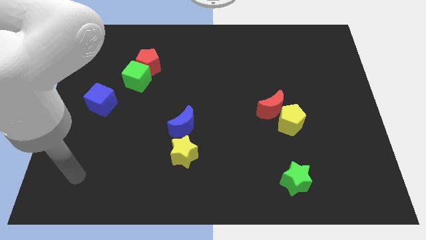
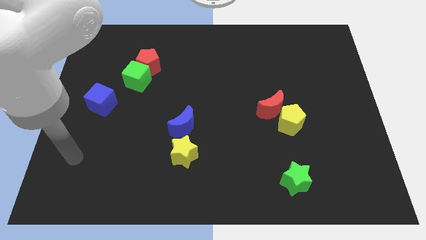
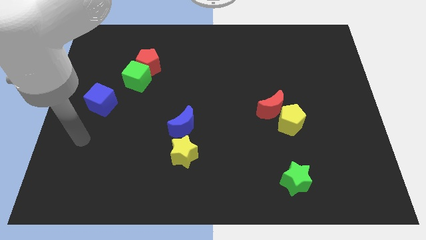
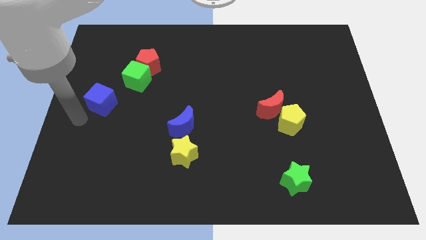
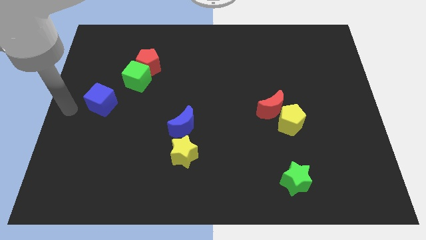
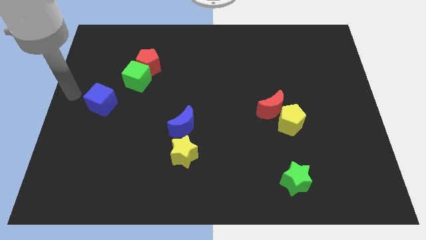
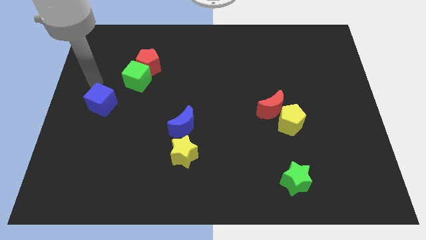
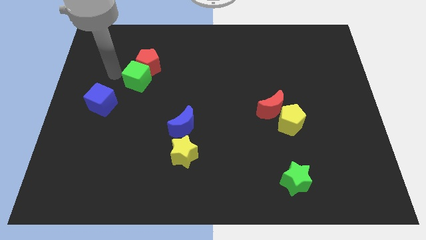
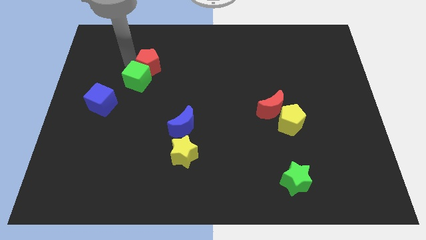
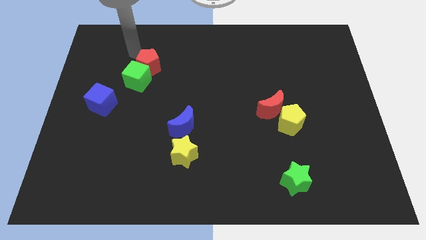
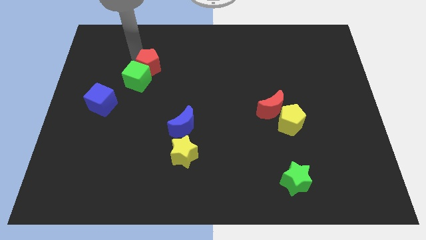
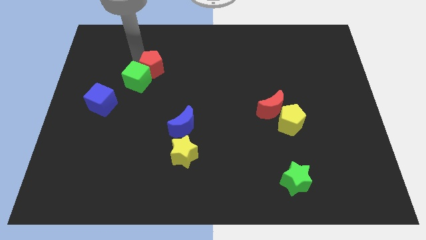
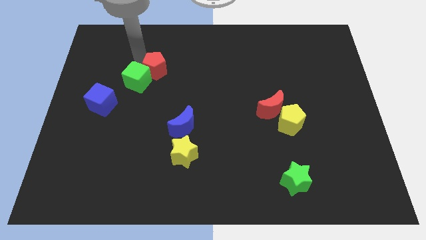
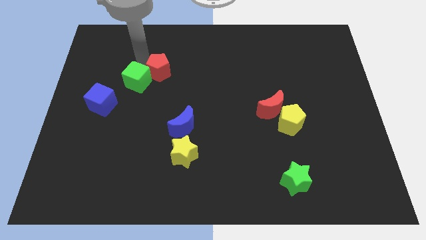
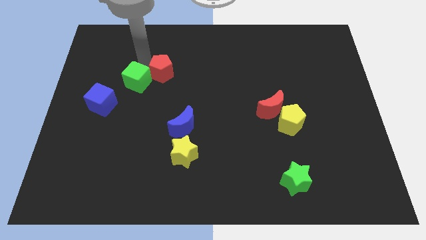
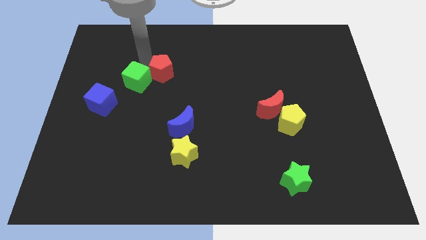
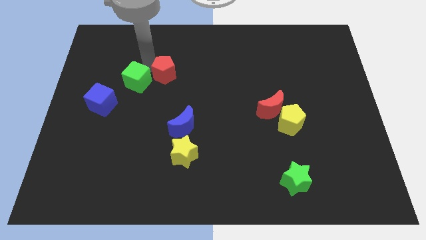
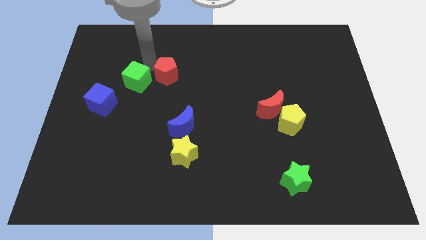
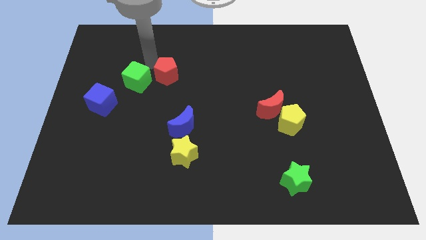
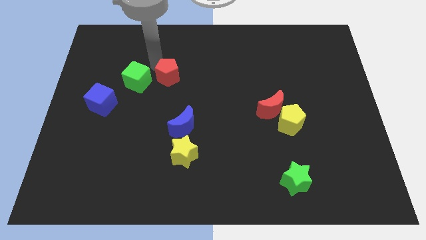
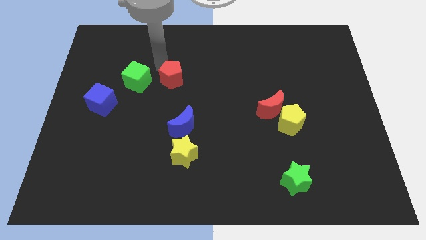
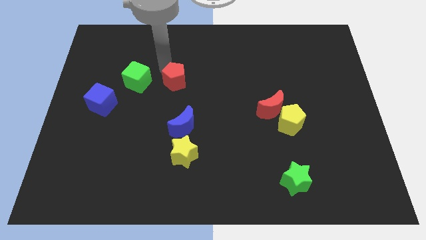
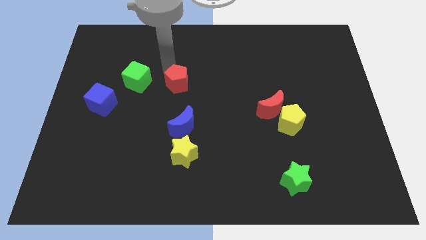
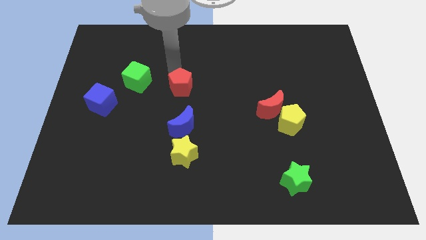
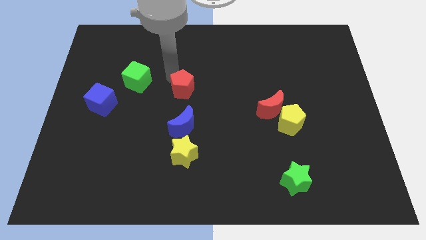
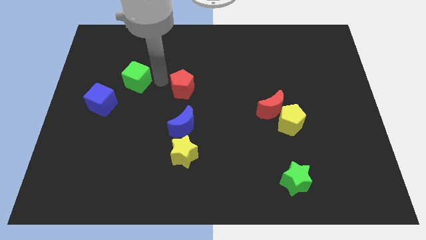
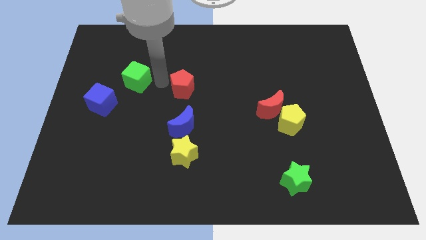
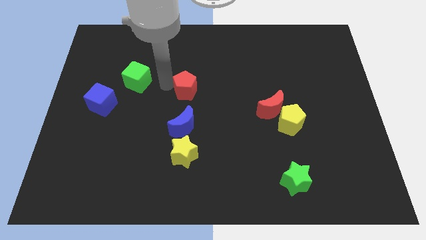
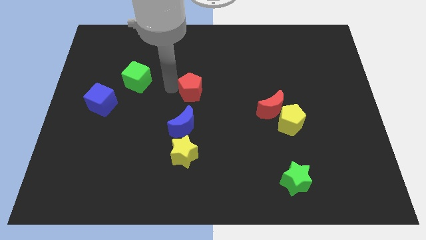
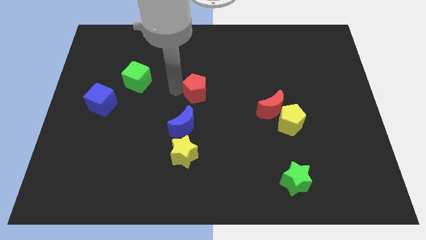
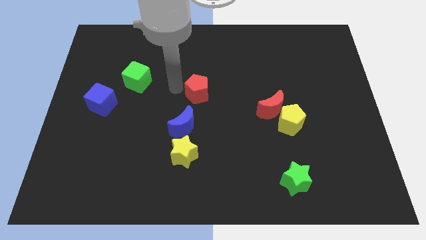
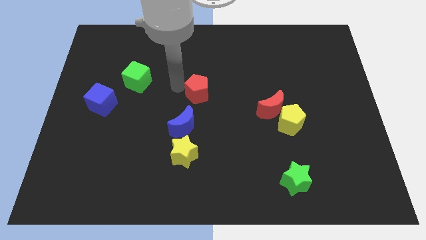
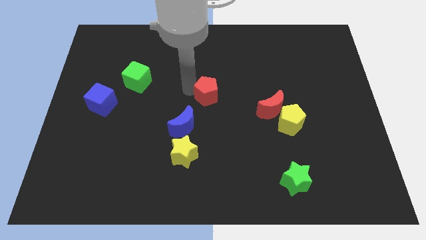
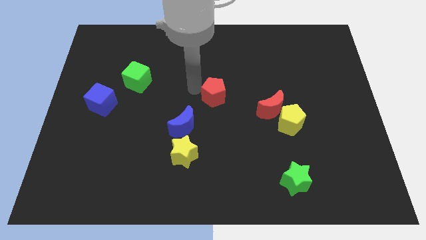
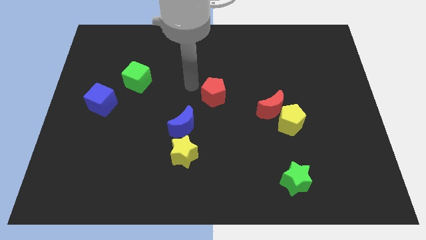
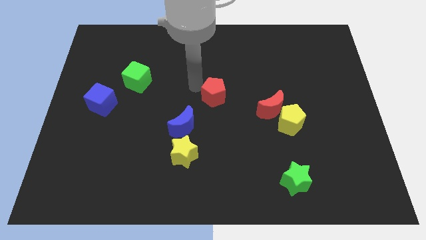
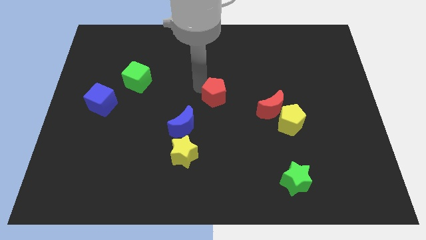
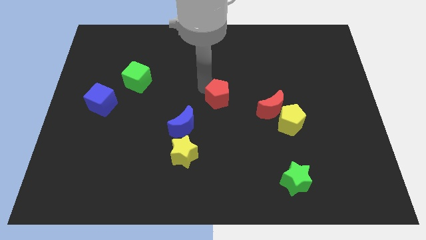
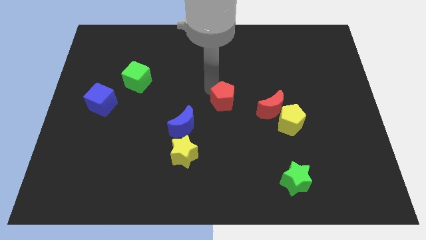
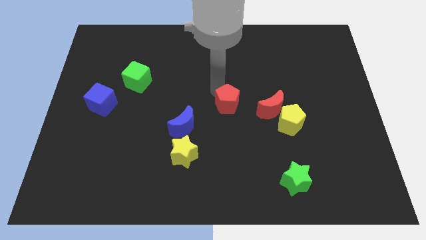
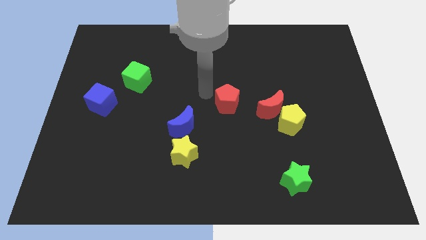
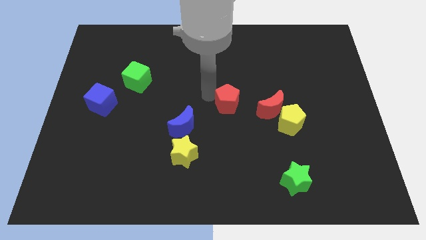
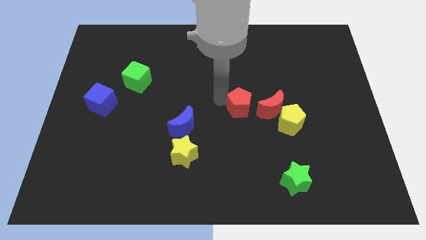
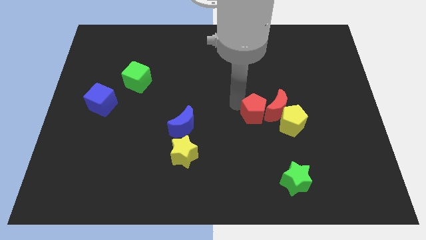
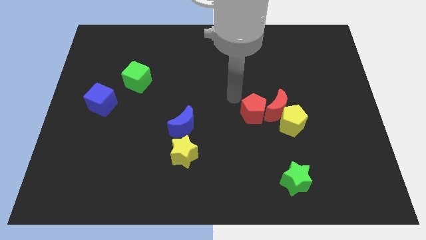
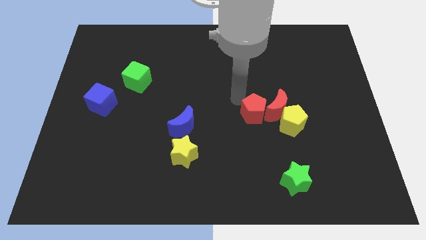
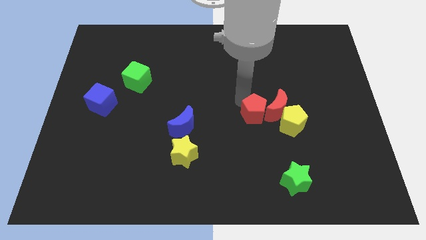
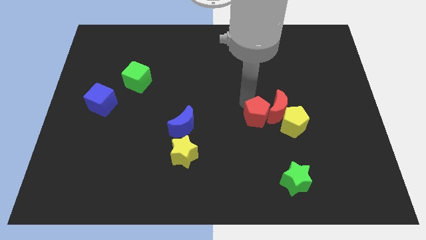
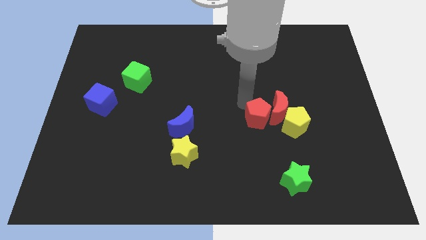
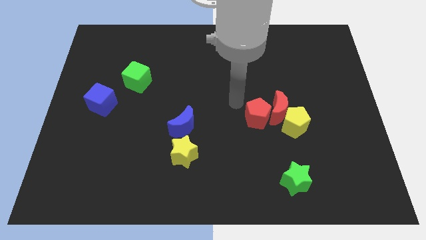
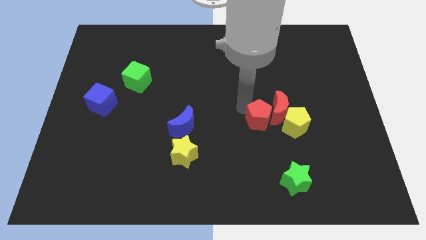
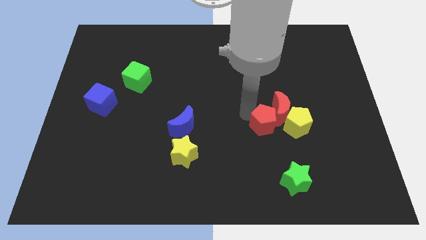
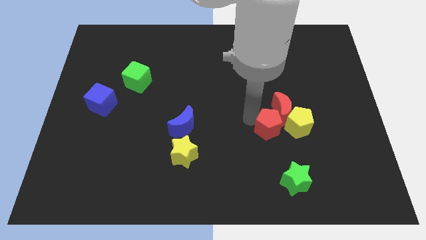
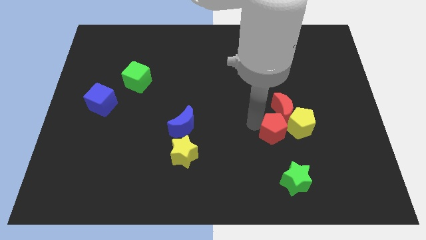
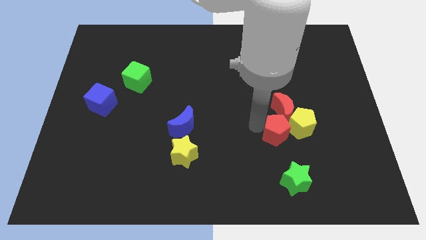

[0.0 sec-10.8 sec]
move the red pentagon close to the yellow pentagon

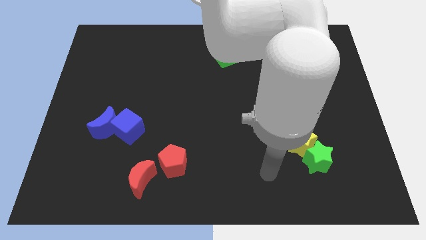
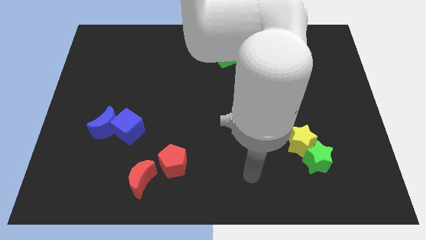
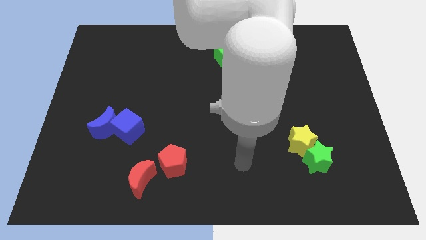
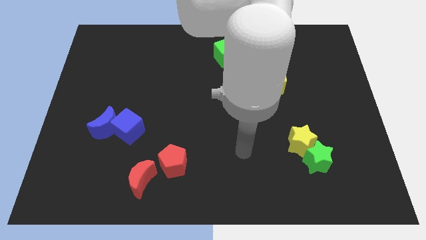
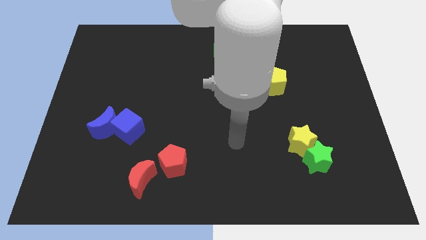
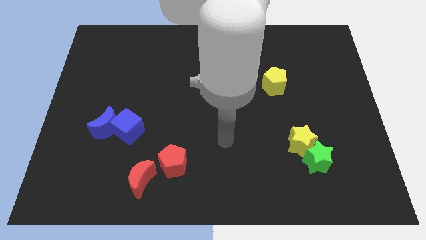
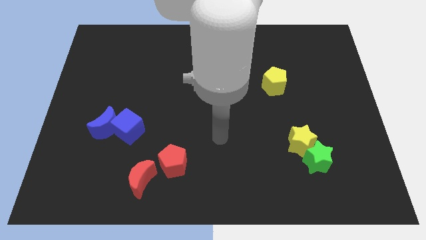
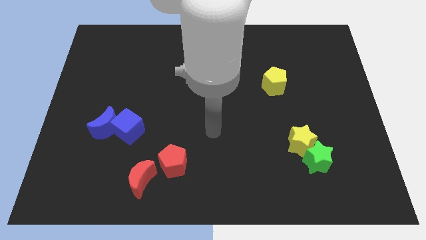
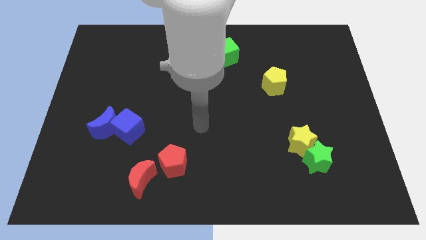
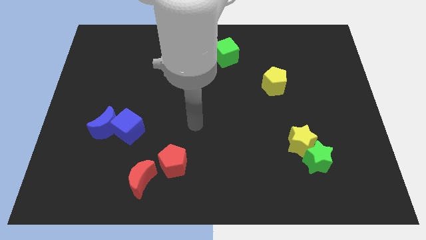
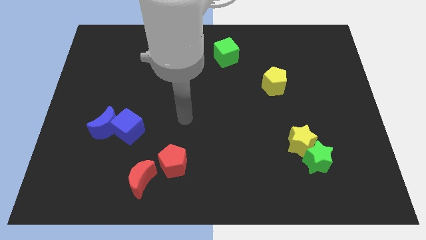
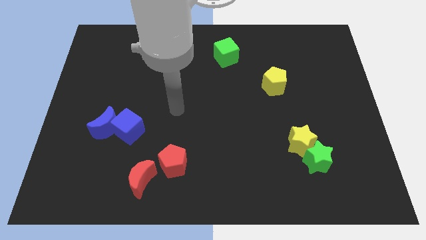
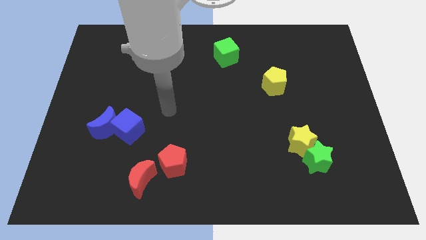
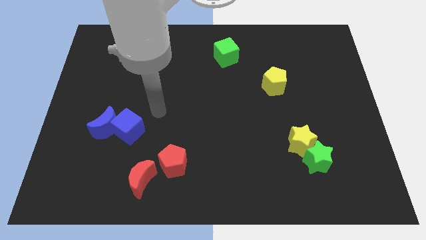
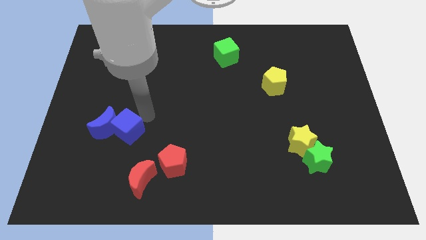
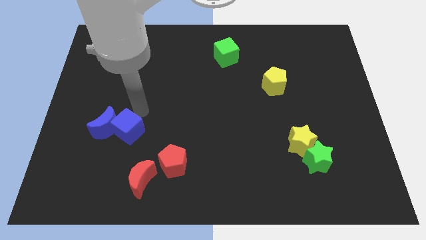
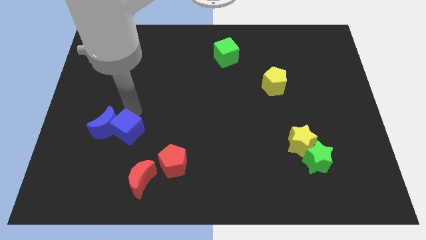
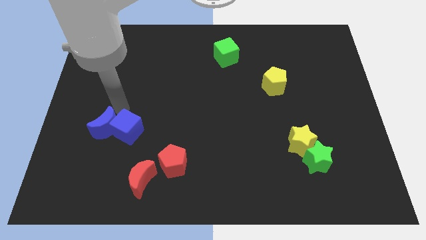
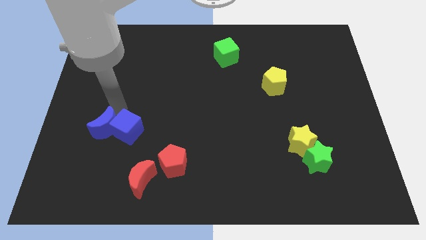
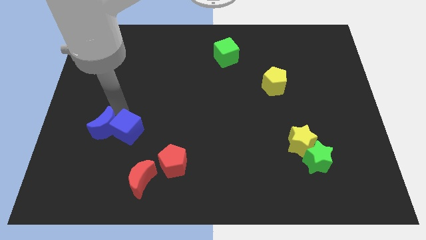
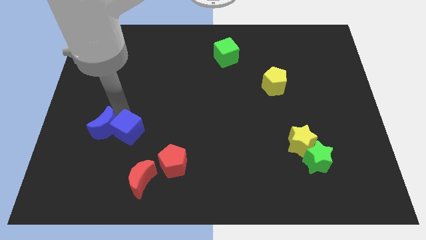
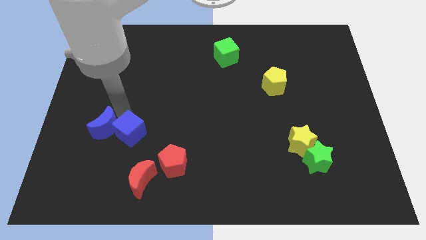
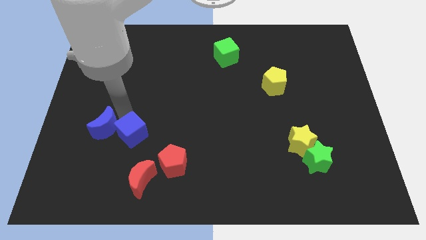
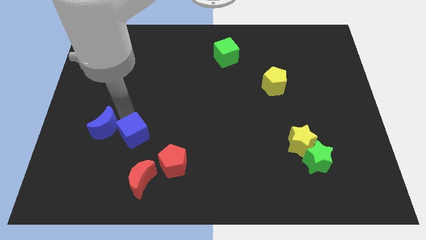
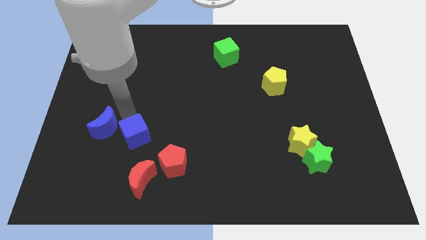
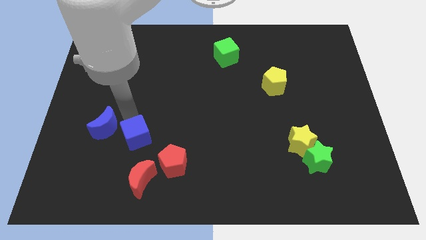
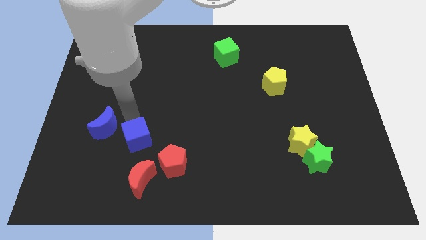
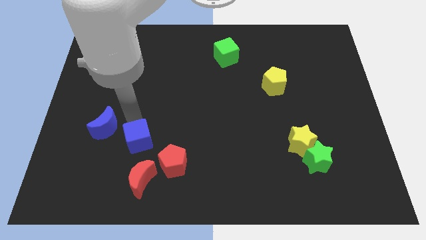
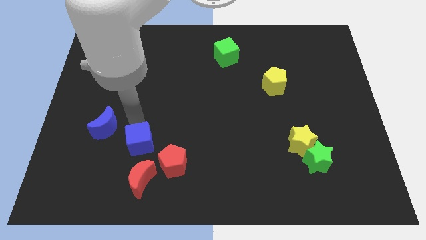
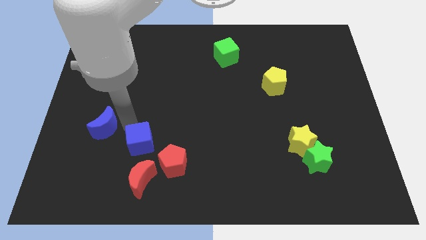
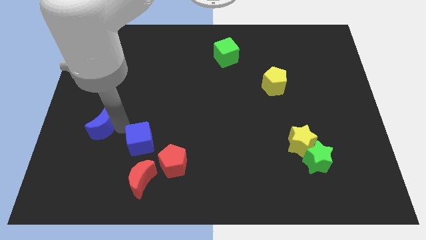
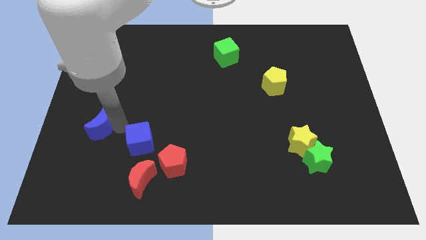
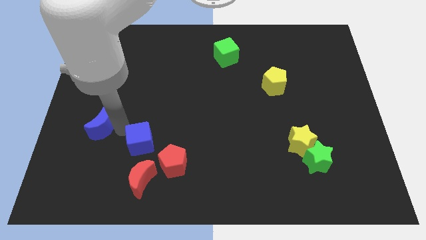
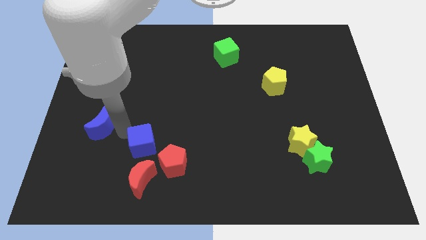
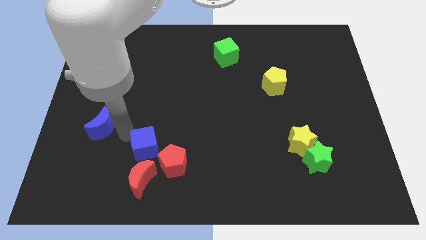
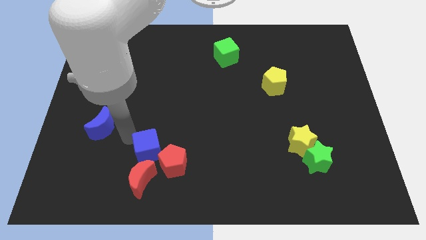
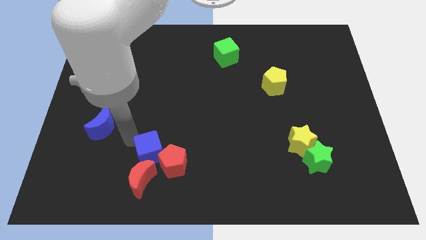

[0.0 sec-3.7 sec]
put the blue cube next to the red pentagon
